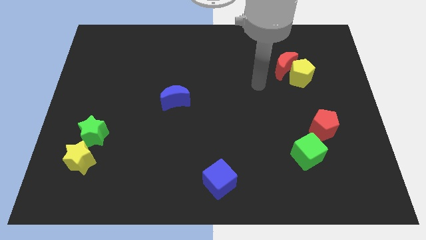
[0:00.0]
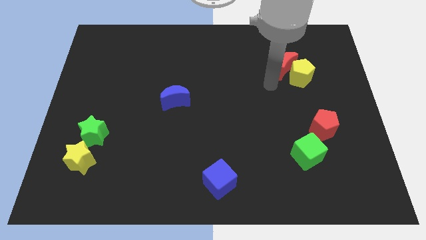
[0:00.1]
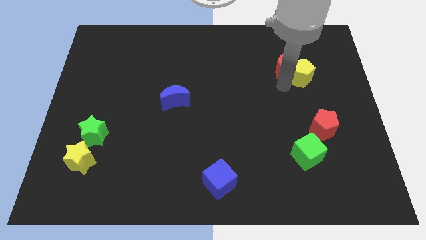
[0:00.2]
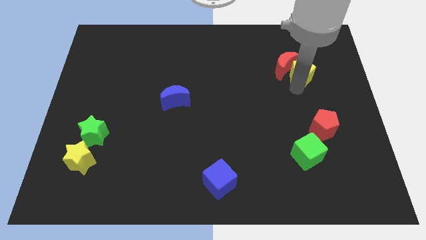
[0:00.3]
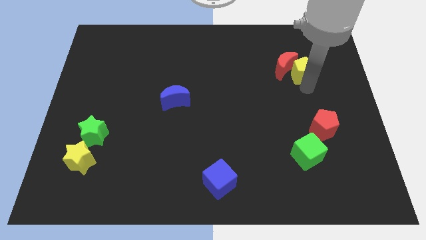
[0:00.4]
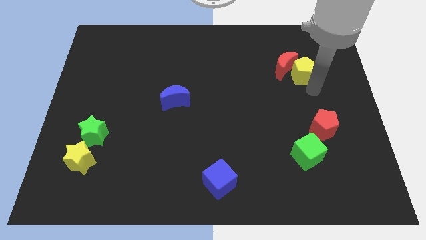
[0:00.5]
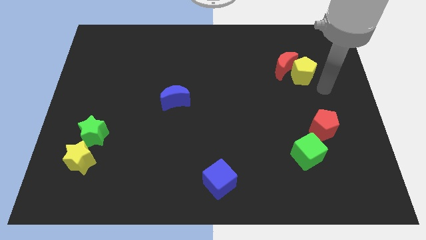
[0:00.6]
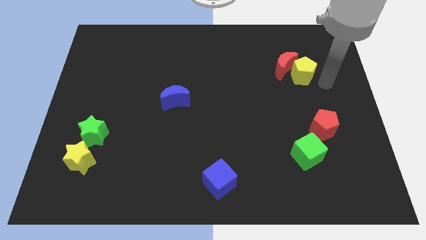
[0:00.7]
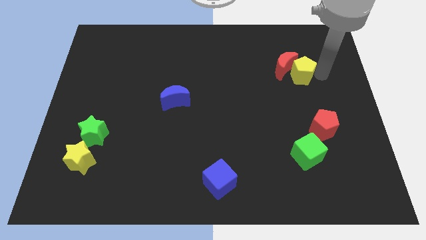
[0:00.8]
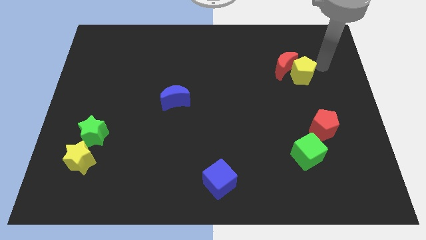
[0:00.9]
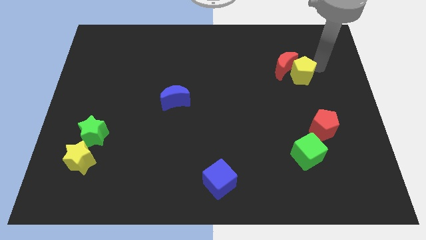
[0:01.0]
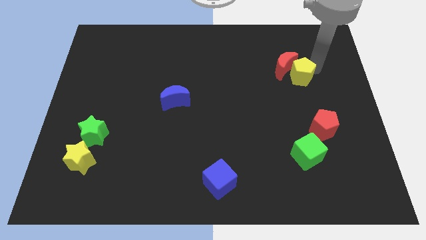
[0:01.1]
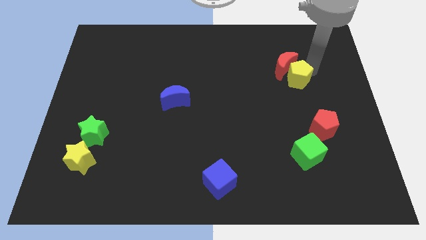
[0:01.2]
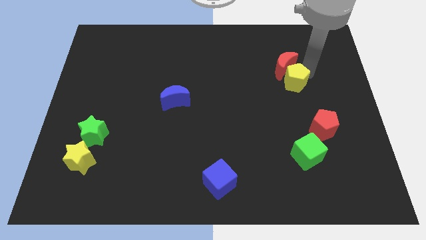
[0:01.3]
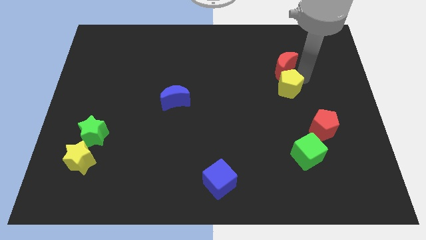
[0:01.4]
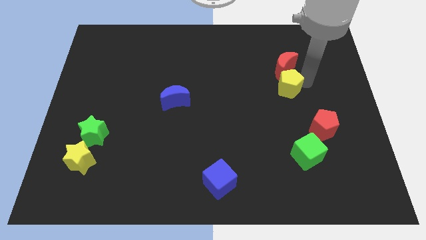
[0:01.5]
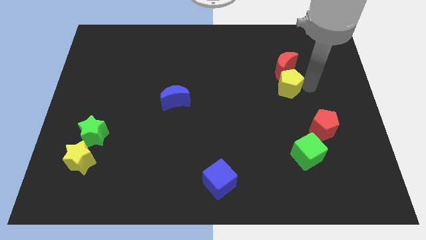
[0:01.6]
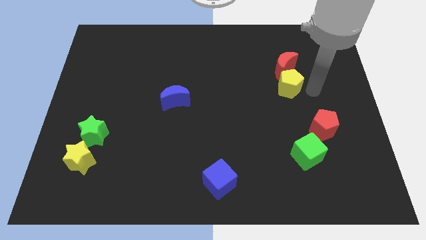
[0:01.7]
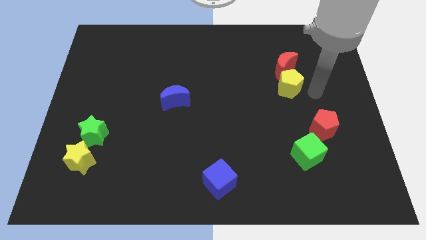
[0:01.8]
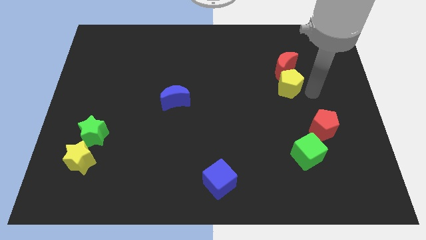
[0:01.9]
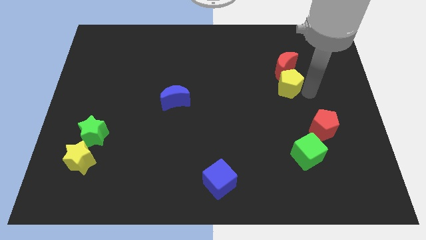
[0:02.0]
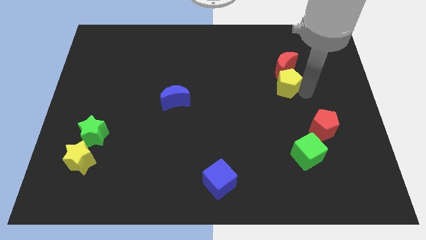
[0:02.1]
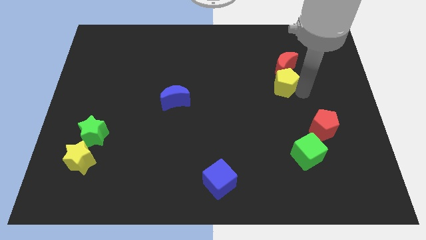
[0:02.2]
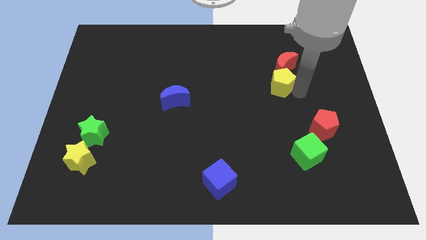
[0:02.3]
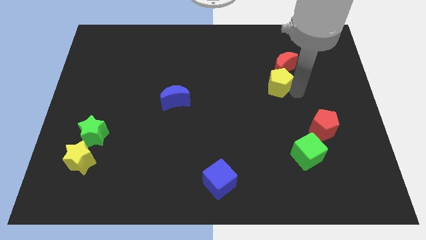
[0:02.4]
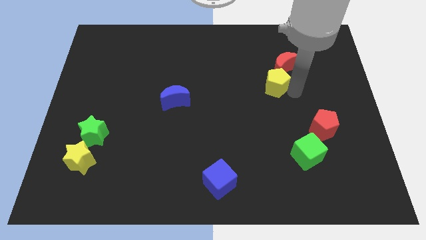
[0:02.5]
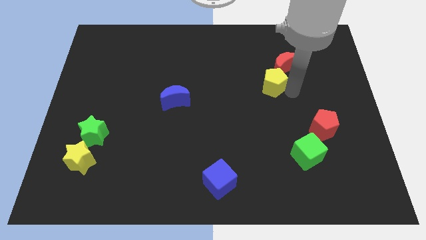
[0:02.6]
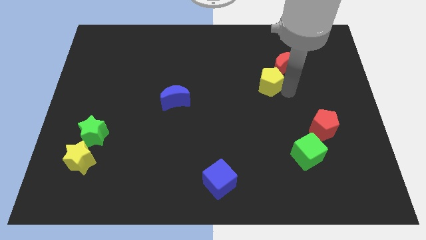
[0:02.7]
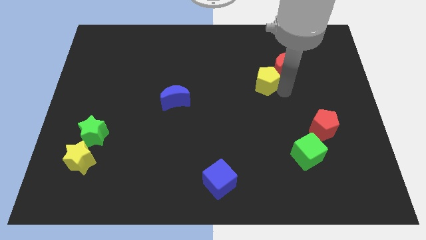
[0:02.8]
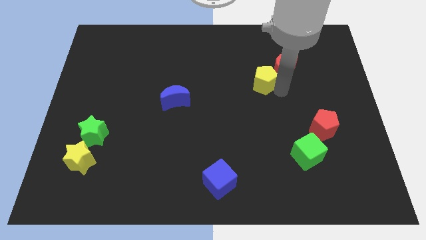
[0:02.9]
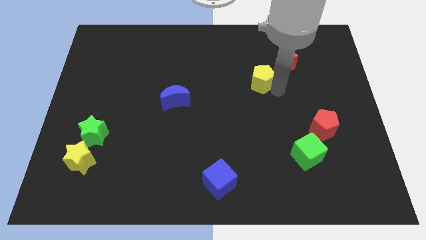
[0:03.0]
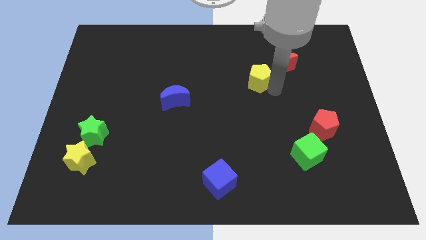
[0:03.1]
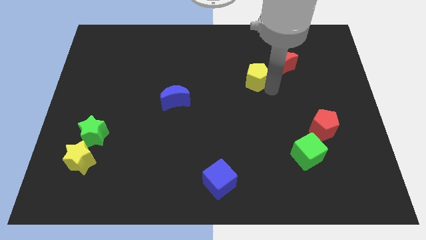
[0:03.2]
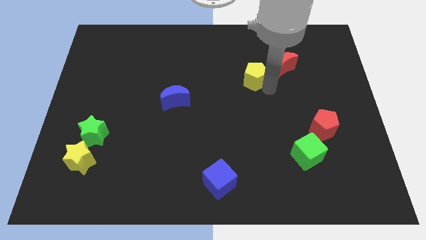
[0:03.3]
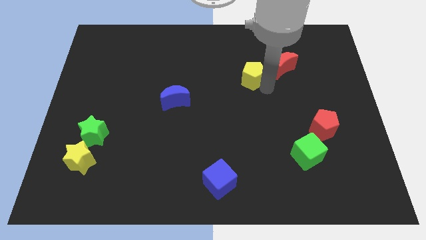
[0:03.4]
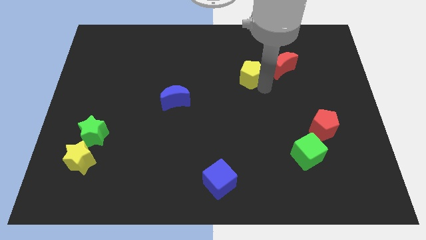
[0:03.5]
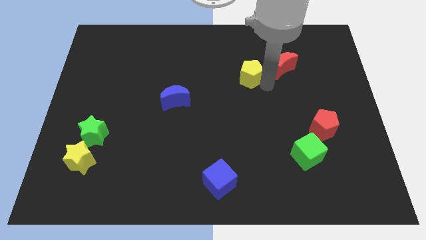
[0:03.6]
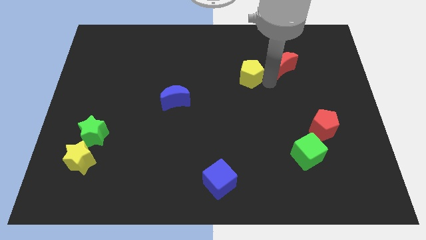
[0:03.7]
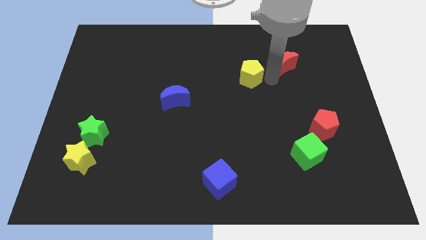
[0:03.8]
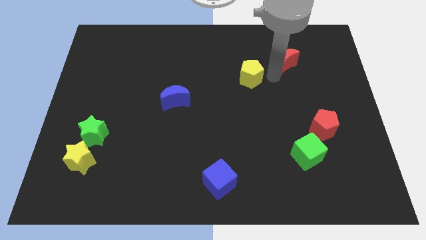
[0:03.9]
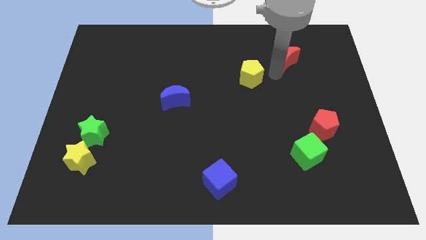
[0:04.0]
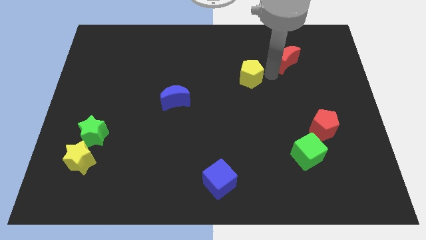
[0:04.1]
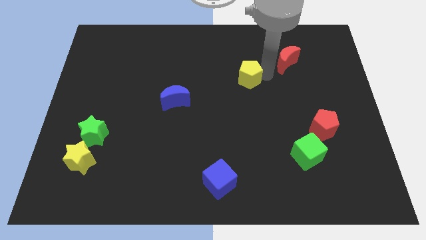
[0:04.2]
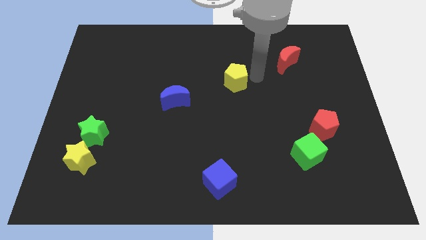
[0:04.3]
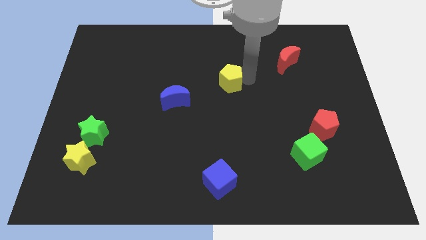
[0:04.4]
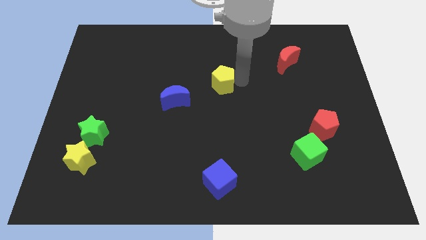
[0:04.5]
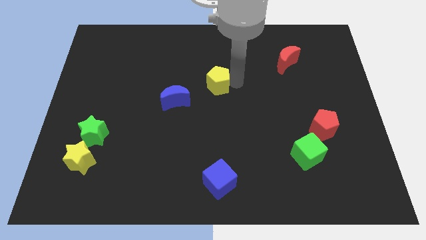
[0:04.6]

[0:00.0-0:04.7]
push the yellow pentagon left

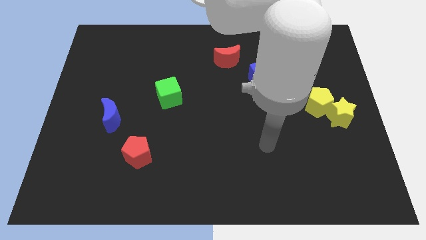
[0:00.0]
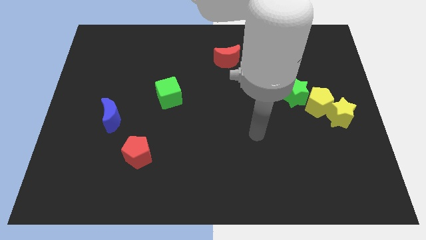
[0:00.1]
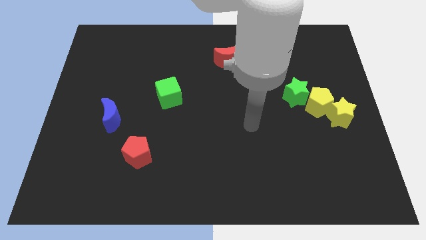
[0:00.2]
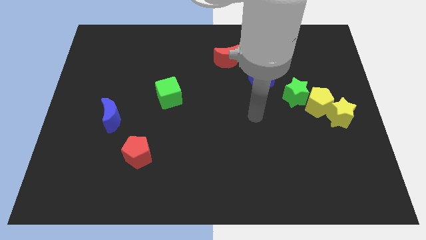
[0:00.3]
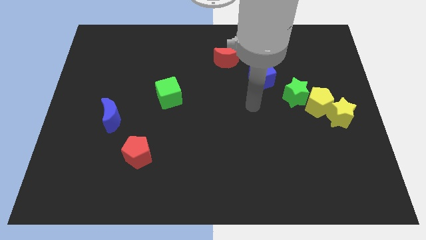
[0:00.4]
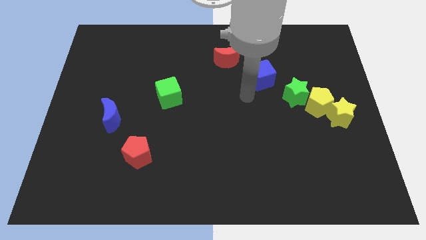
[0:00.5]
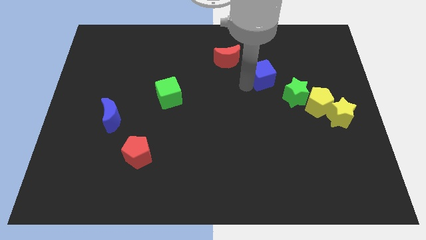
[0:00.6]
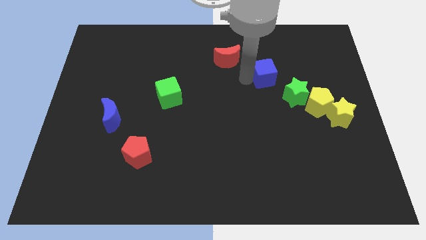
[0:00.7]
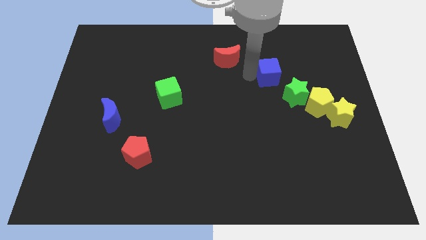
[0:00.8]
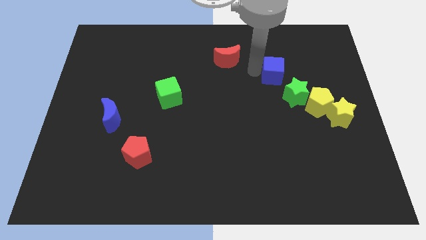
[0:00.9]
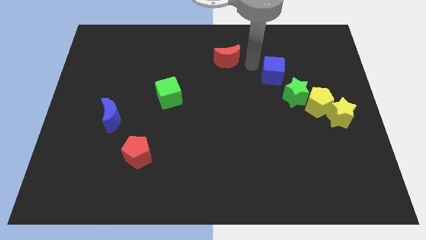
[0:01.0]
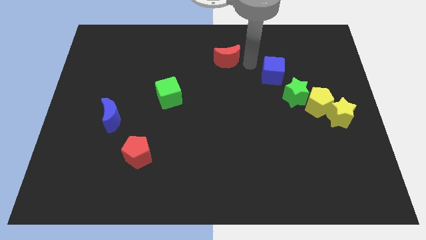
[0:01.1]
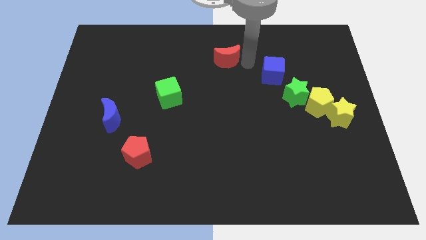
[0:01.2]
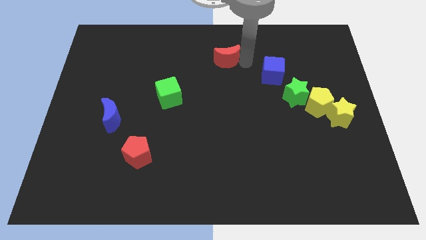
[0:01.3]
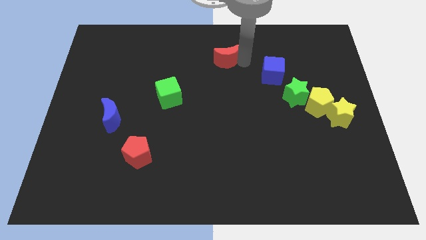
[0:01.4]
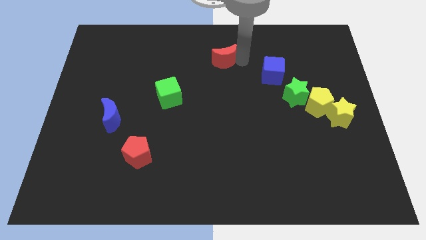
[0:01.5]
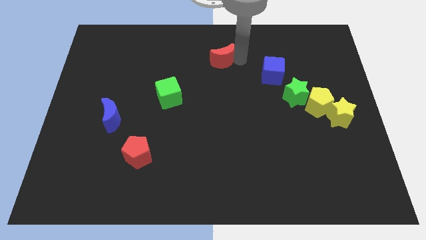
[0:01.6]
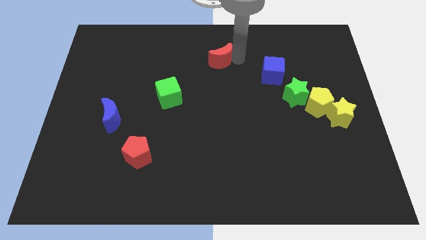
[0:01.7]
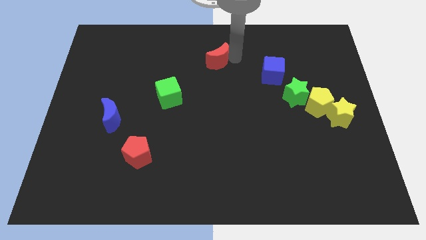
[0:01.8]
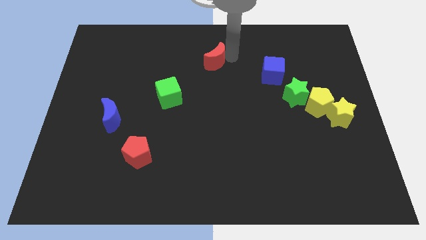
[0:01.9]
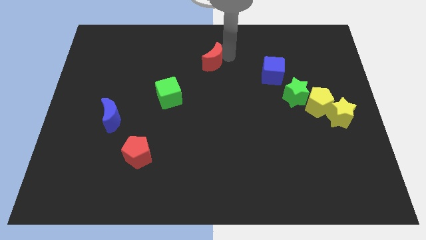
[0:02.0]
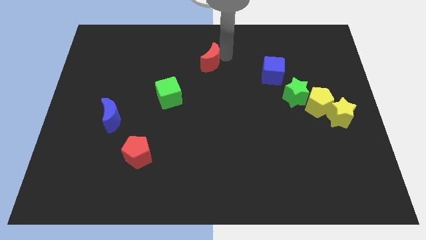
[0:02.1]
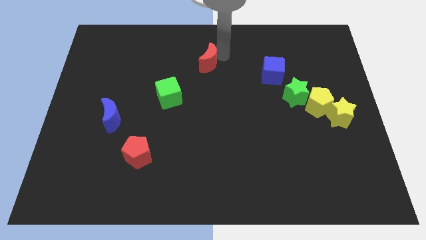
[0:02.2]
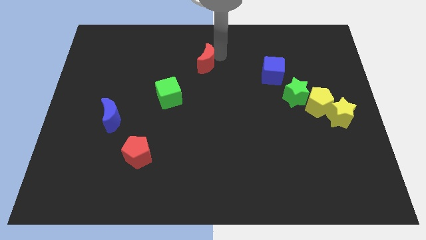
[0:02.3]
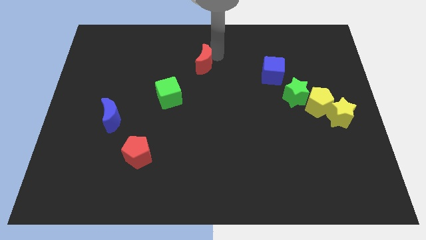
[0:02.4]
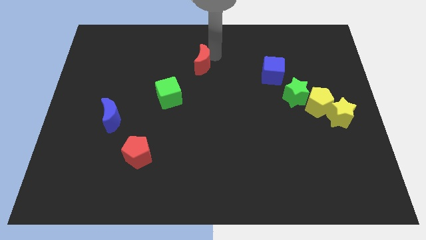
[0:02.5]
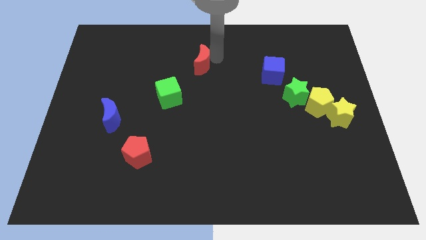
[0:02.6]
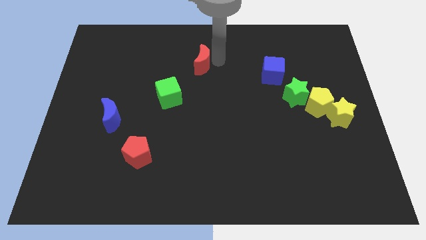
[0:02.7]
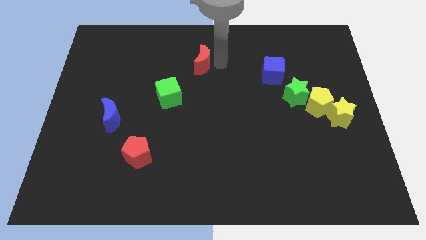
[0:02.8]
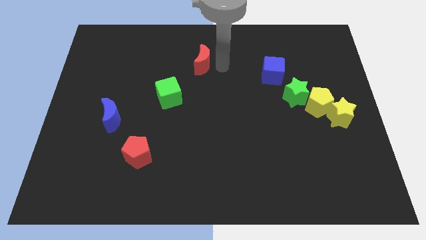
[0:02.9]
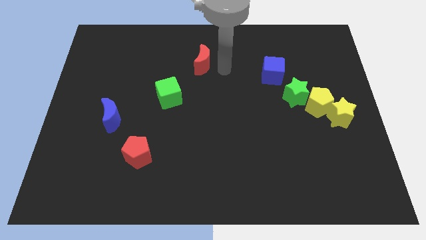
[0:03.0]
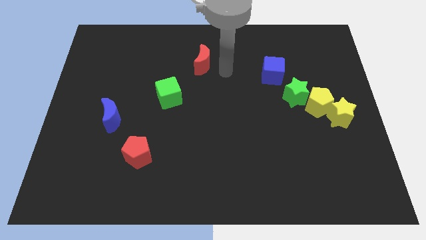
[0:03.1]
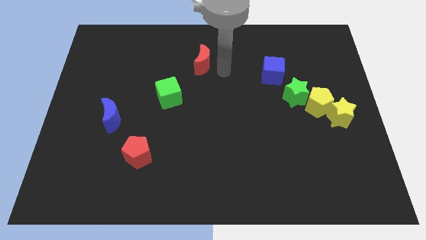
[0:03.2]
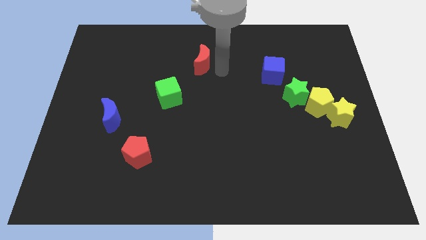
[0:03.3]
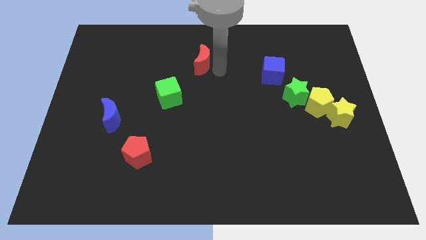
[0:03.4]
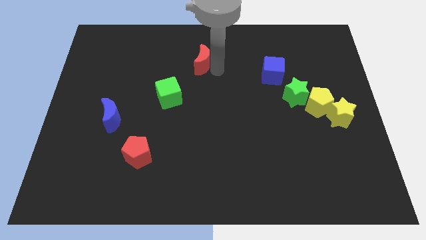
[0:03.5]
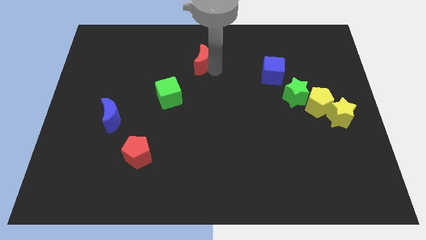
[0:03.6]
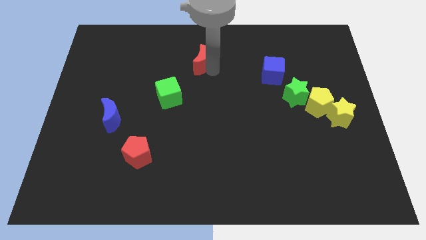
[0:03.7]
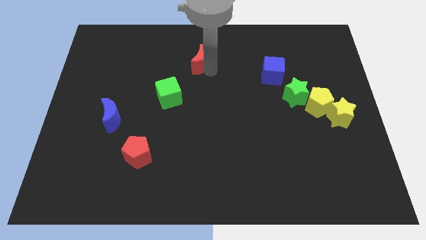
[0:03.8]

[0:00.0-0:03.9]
move the red moon a little left

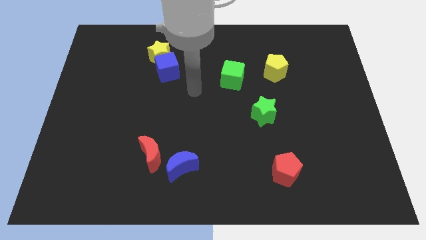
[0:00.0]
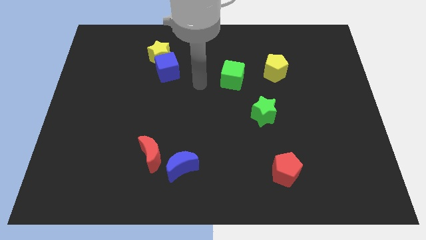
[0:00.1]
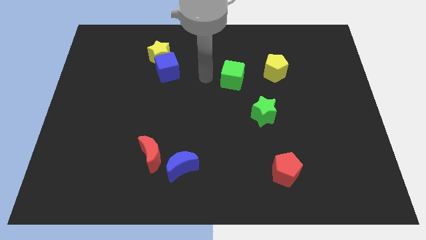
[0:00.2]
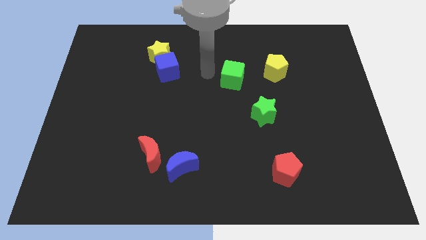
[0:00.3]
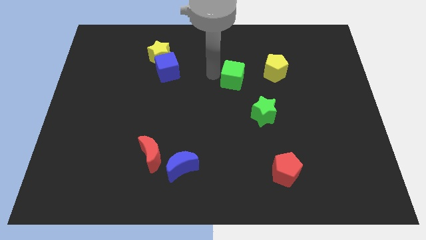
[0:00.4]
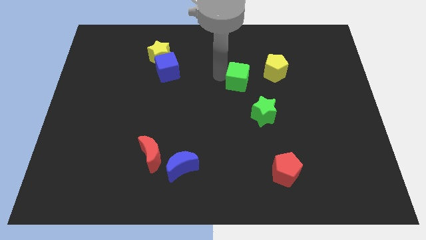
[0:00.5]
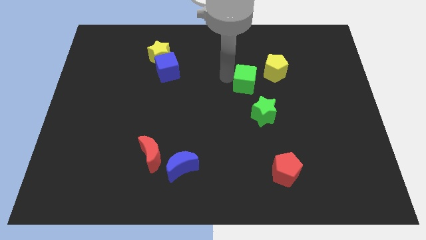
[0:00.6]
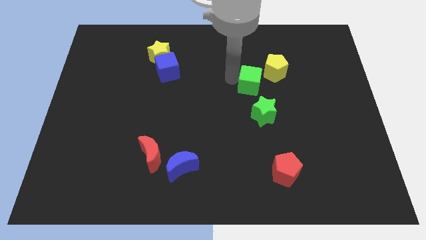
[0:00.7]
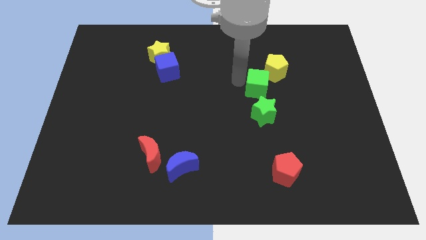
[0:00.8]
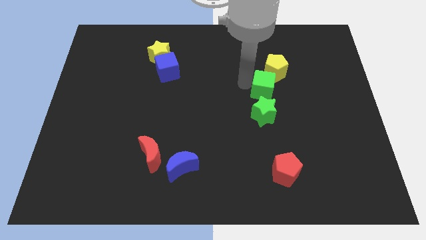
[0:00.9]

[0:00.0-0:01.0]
slightly move the green cube to the right
